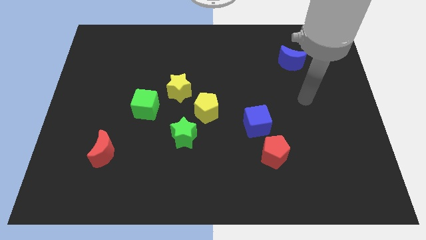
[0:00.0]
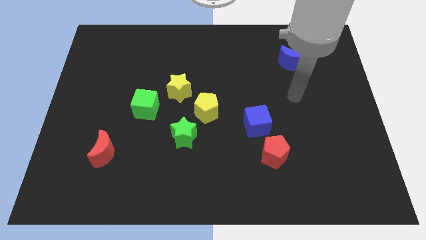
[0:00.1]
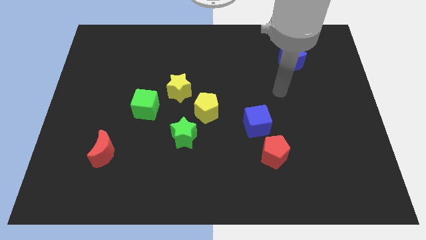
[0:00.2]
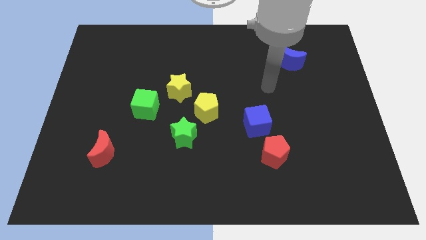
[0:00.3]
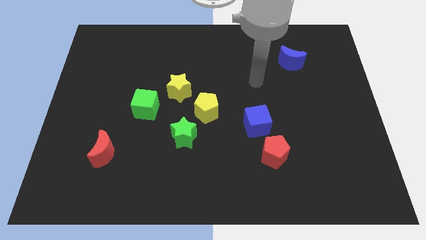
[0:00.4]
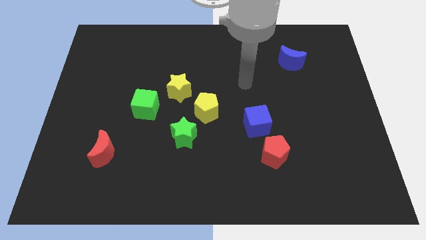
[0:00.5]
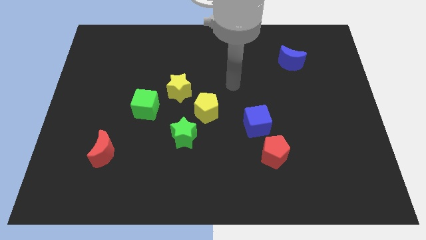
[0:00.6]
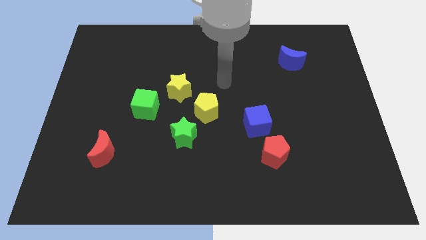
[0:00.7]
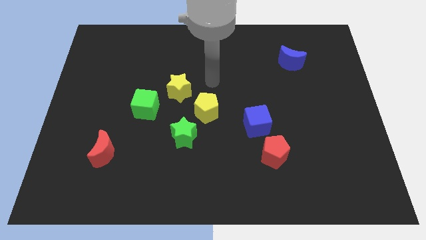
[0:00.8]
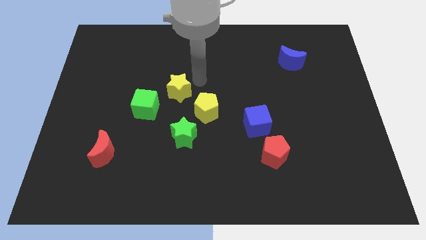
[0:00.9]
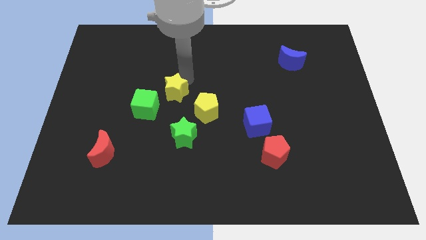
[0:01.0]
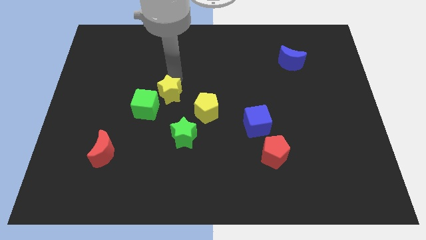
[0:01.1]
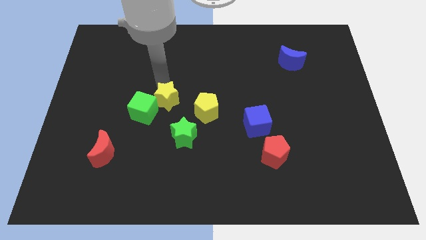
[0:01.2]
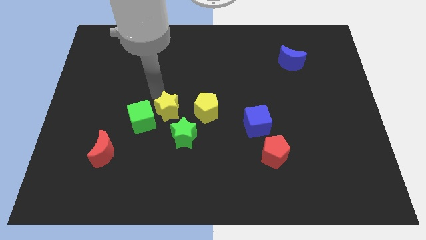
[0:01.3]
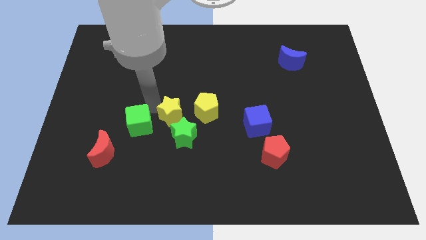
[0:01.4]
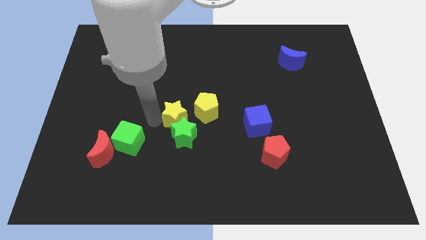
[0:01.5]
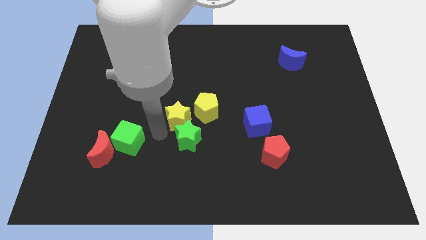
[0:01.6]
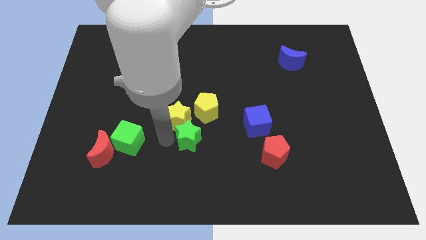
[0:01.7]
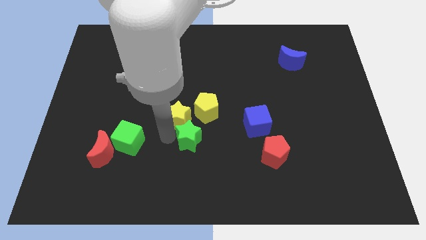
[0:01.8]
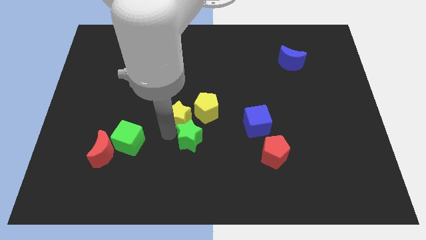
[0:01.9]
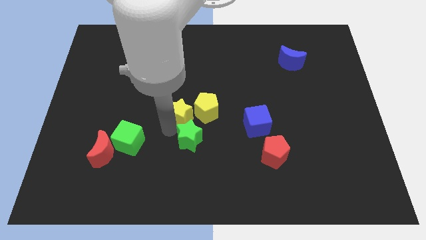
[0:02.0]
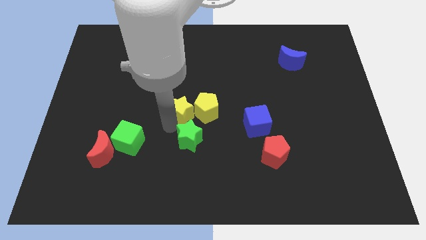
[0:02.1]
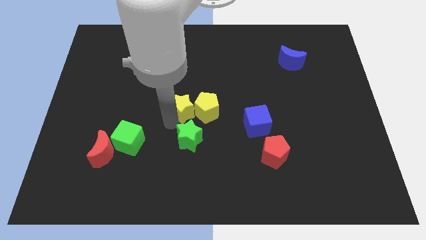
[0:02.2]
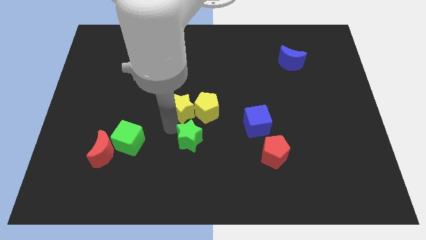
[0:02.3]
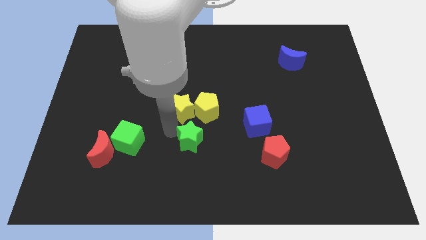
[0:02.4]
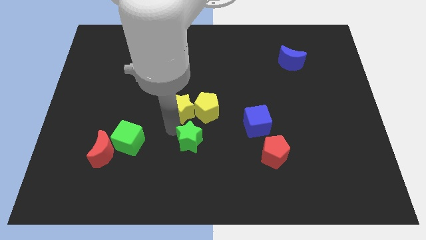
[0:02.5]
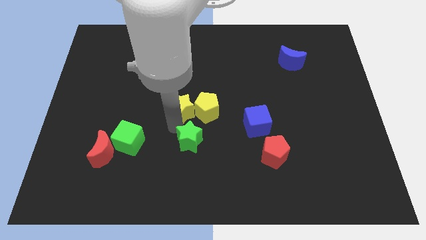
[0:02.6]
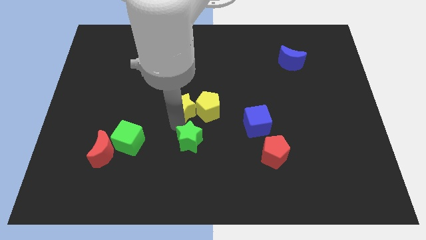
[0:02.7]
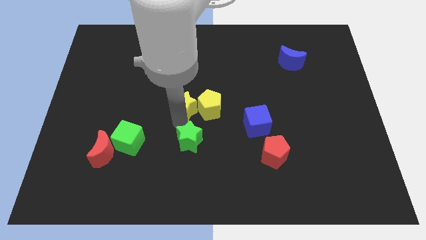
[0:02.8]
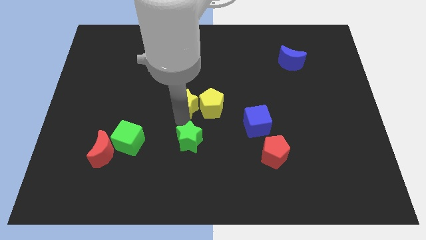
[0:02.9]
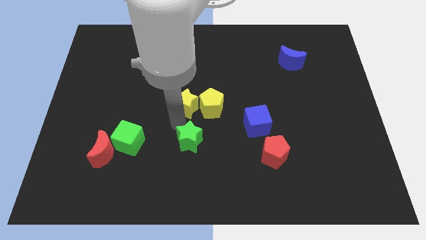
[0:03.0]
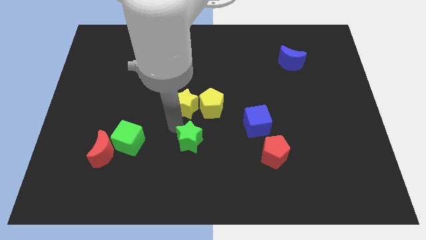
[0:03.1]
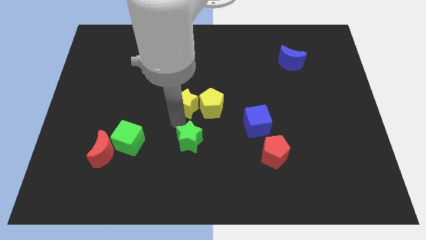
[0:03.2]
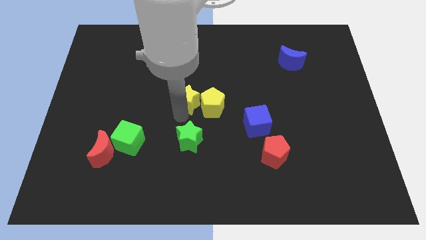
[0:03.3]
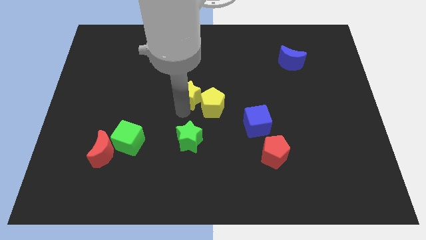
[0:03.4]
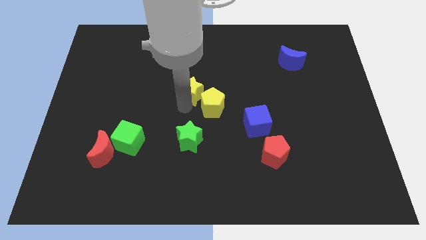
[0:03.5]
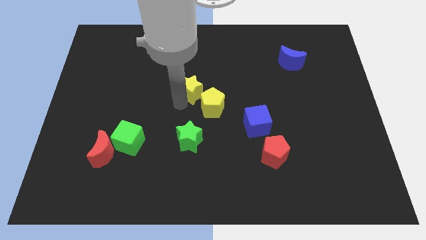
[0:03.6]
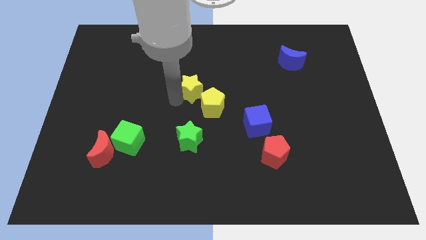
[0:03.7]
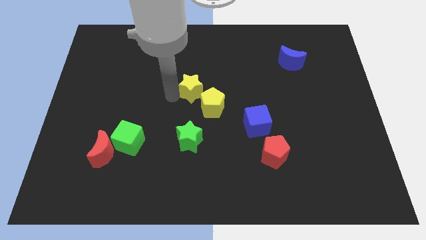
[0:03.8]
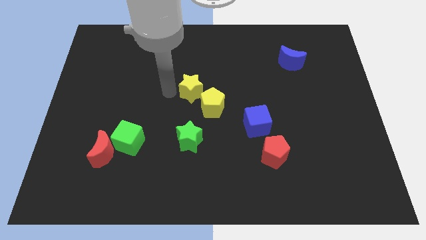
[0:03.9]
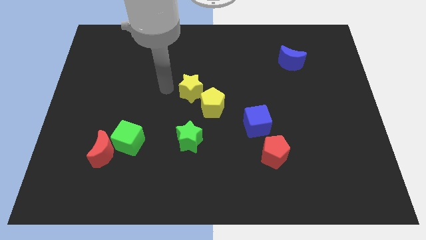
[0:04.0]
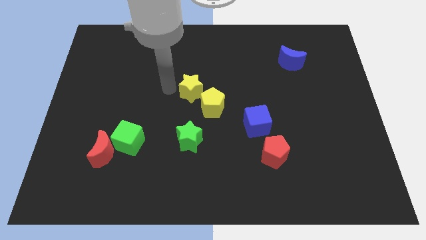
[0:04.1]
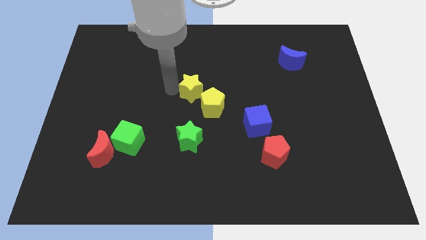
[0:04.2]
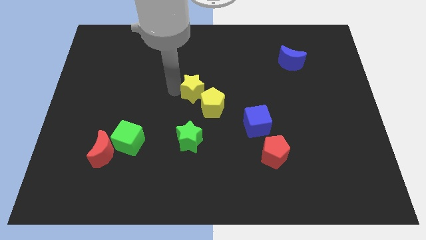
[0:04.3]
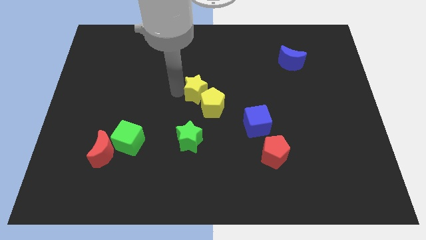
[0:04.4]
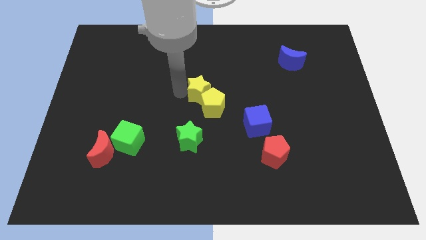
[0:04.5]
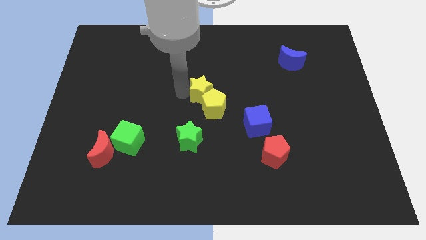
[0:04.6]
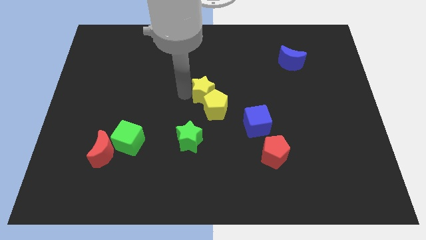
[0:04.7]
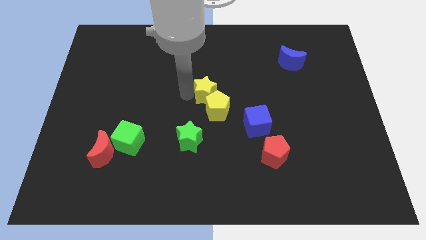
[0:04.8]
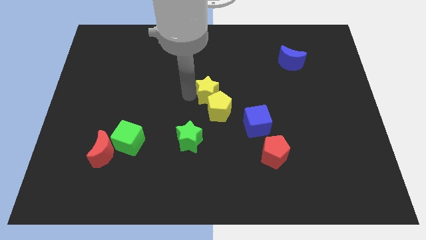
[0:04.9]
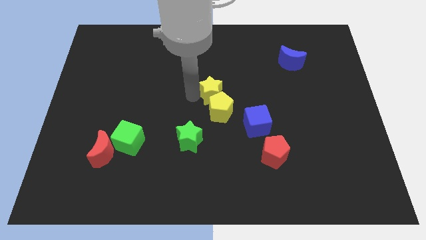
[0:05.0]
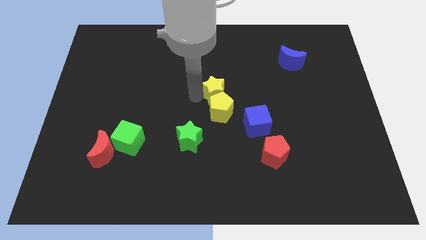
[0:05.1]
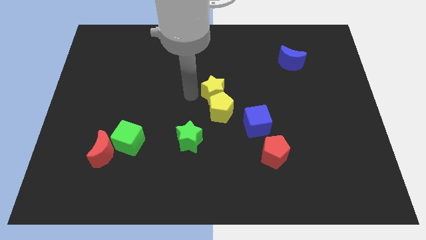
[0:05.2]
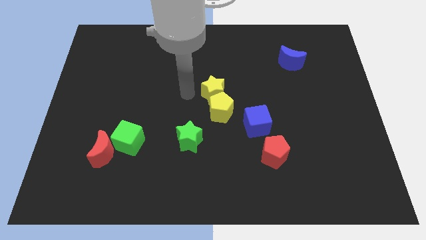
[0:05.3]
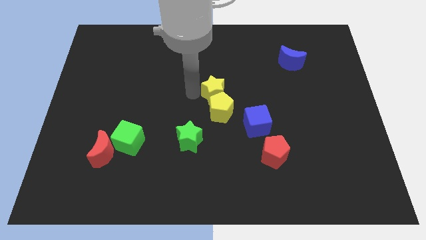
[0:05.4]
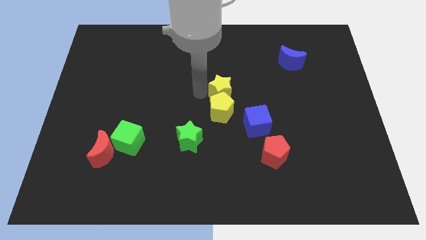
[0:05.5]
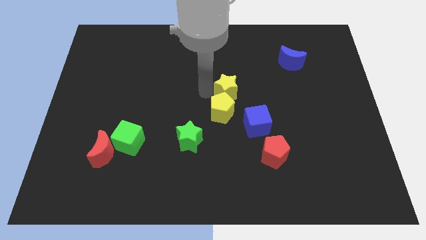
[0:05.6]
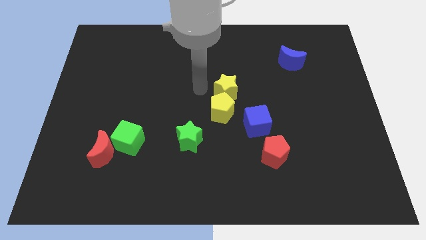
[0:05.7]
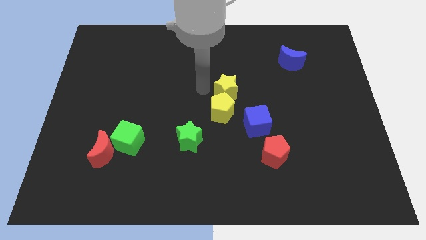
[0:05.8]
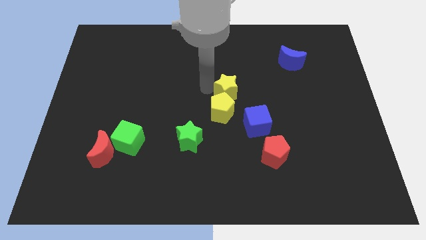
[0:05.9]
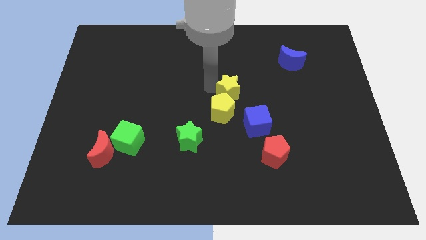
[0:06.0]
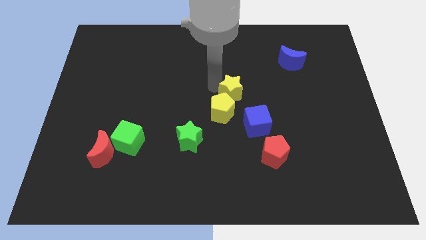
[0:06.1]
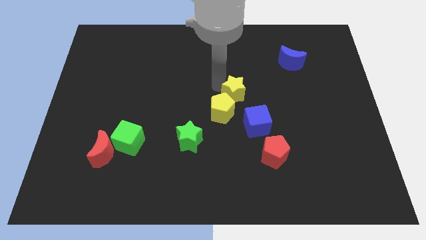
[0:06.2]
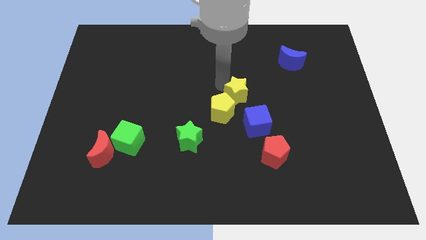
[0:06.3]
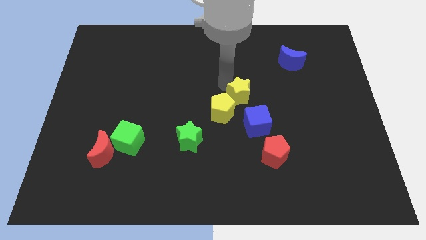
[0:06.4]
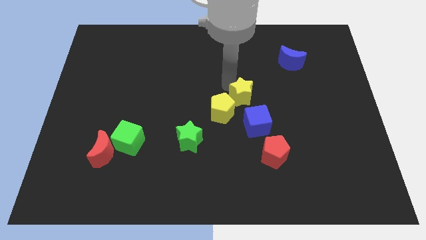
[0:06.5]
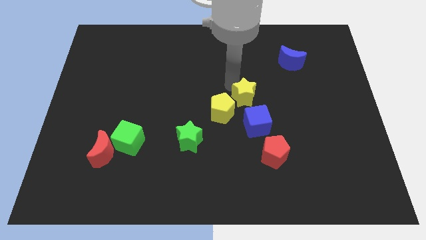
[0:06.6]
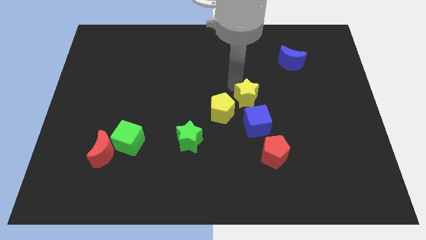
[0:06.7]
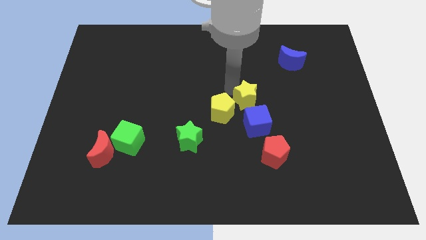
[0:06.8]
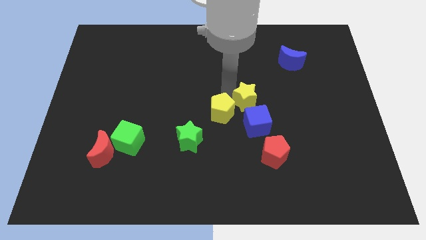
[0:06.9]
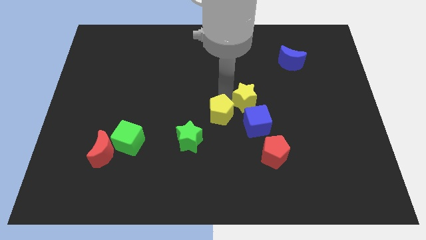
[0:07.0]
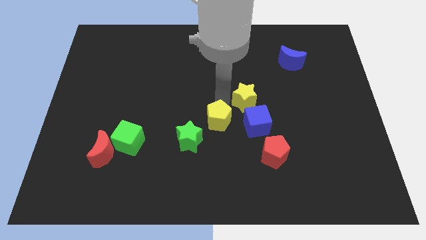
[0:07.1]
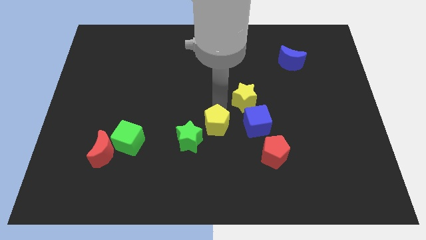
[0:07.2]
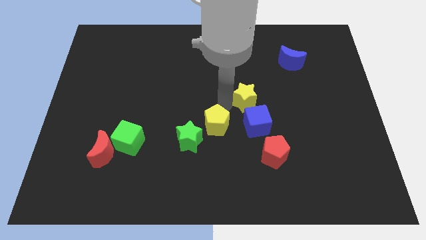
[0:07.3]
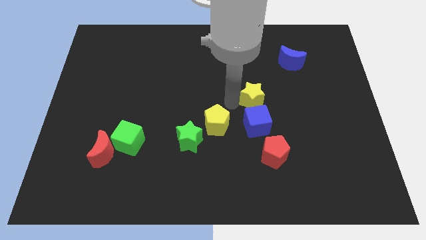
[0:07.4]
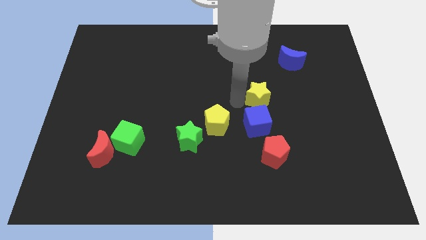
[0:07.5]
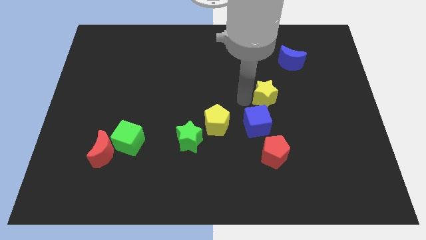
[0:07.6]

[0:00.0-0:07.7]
move the yellow star right
